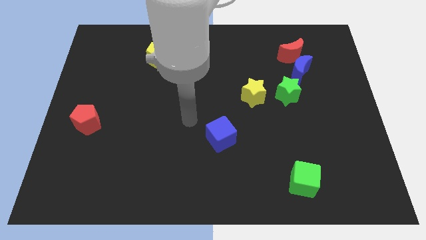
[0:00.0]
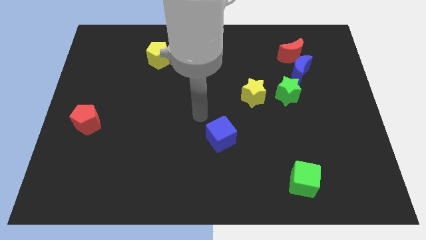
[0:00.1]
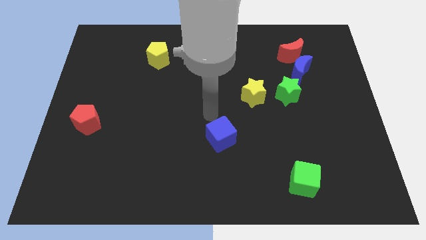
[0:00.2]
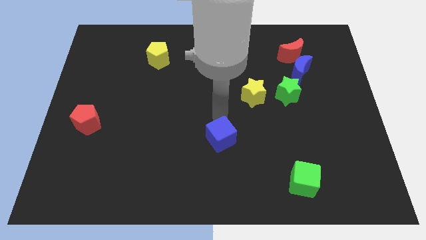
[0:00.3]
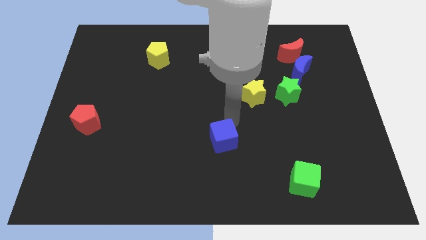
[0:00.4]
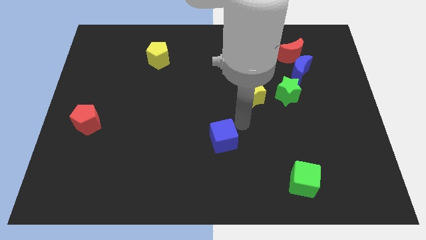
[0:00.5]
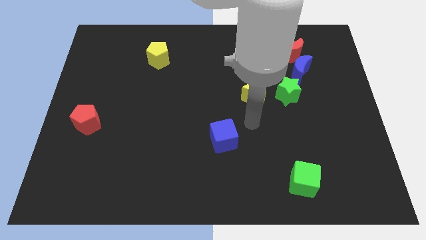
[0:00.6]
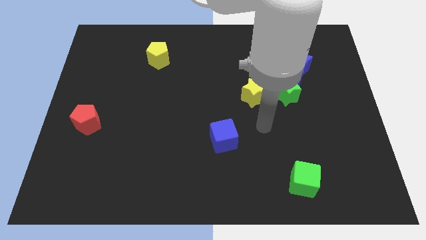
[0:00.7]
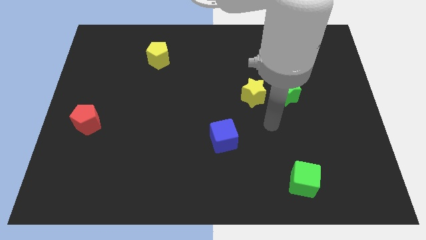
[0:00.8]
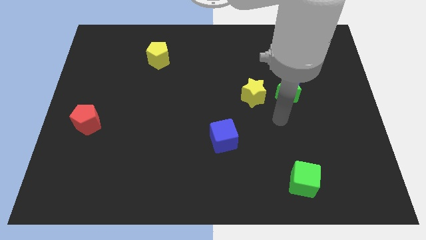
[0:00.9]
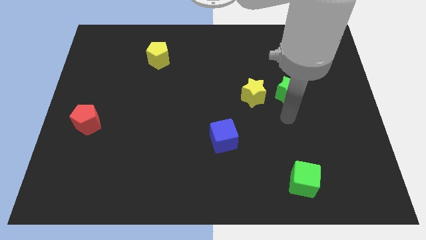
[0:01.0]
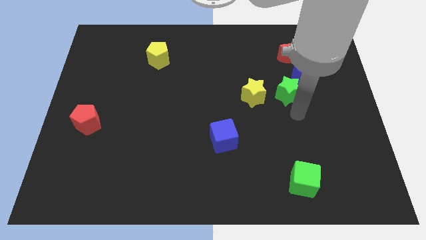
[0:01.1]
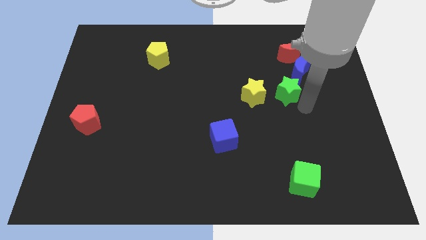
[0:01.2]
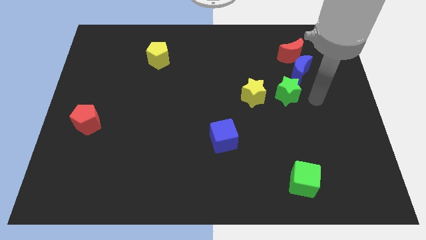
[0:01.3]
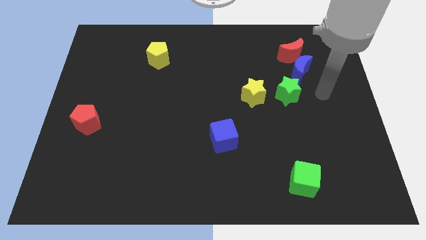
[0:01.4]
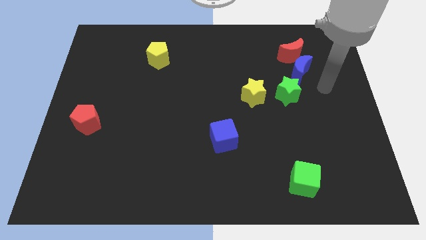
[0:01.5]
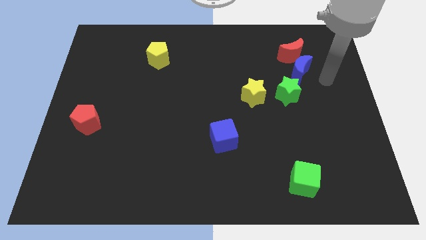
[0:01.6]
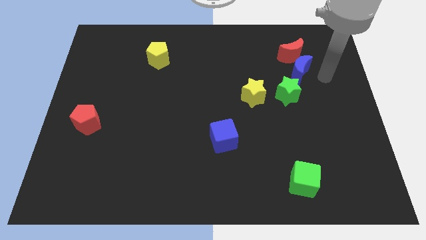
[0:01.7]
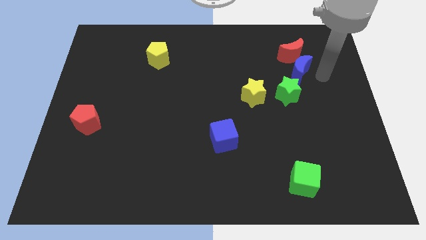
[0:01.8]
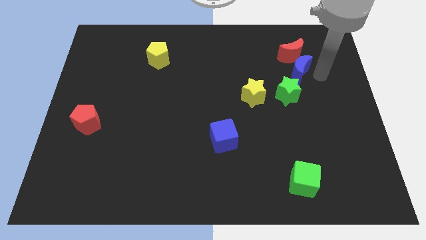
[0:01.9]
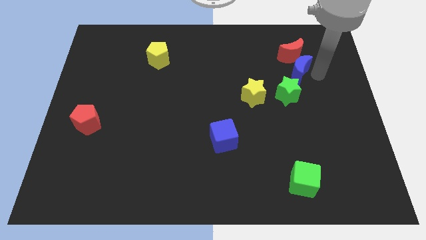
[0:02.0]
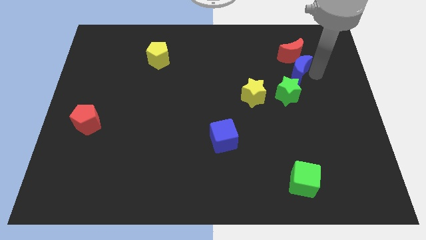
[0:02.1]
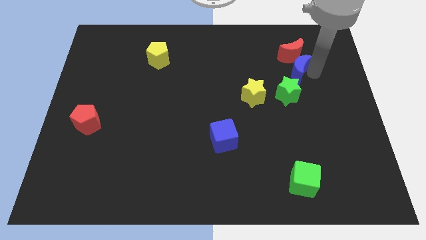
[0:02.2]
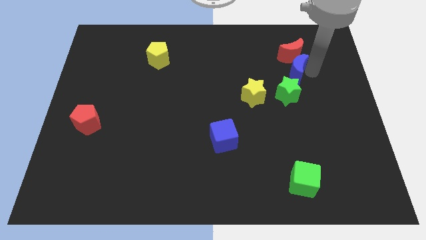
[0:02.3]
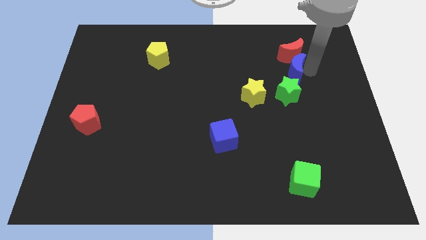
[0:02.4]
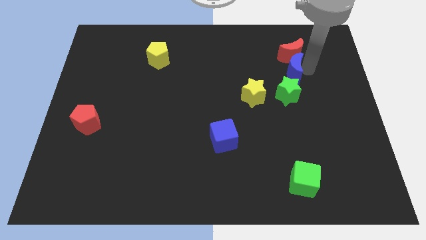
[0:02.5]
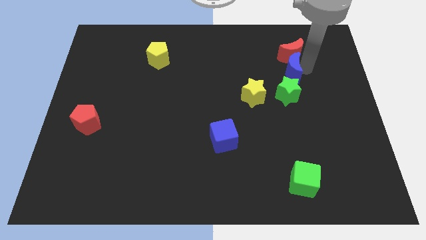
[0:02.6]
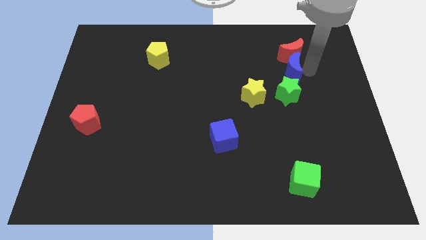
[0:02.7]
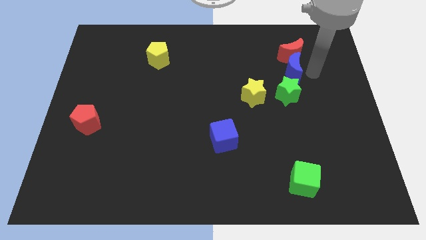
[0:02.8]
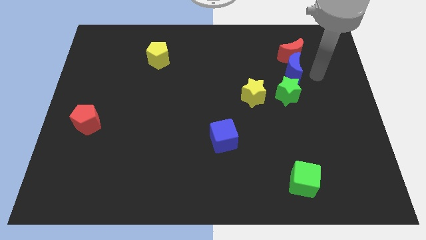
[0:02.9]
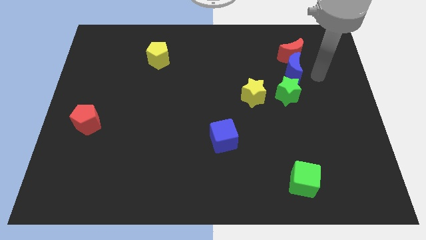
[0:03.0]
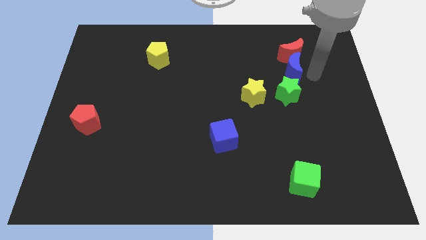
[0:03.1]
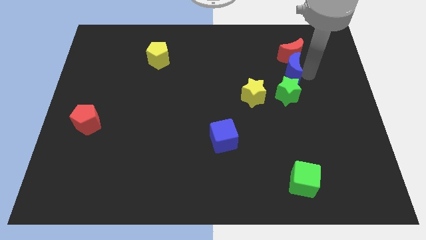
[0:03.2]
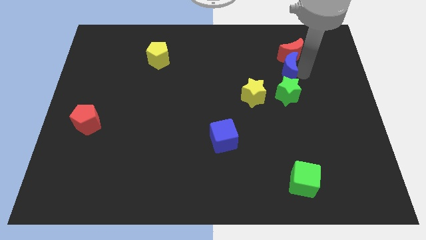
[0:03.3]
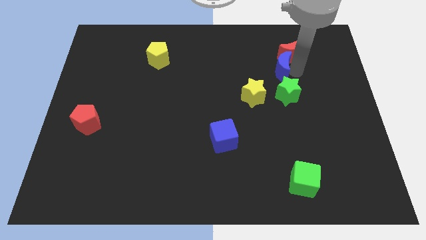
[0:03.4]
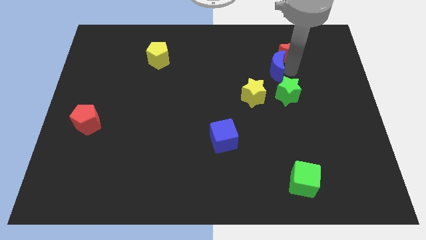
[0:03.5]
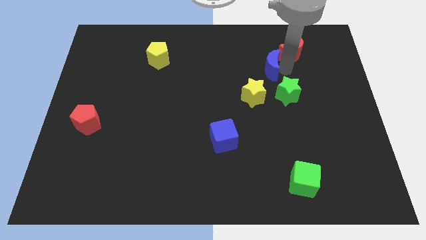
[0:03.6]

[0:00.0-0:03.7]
push the blue moon a bit to the left

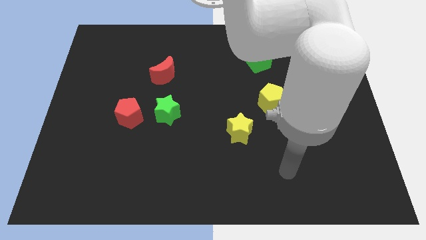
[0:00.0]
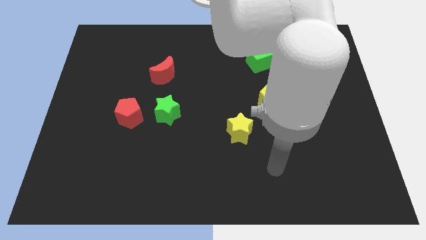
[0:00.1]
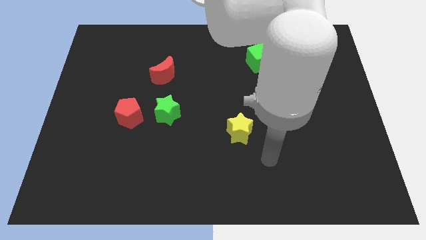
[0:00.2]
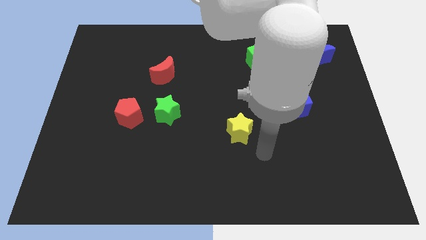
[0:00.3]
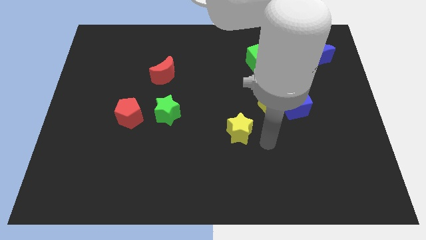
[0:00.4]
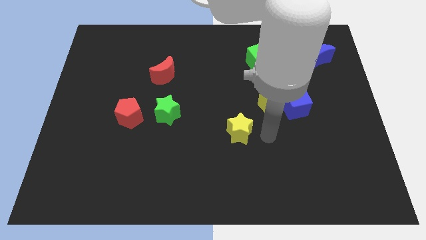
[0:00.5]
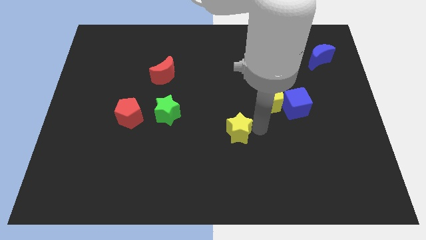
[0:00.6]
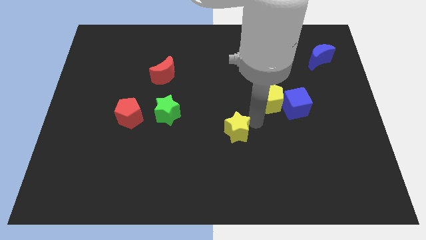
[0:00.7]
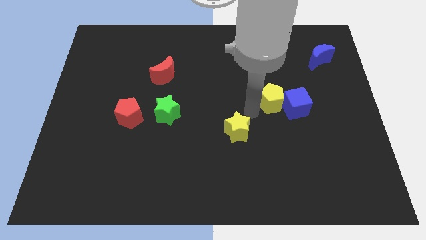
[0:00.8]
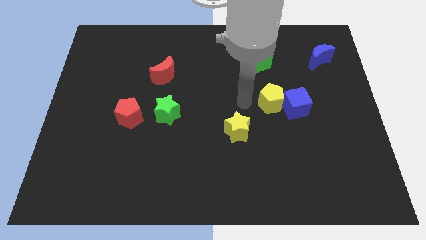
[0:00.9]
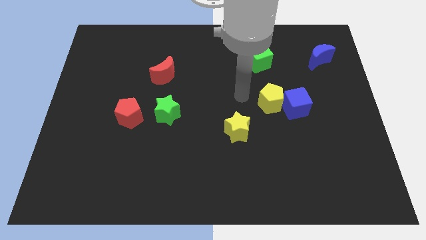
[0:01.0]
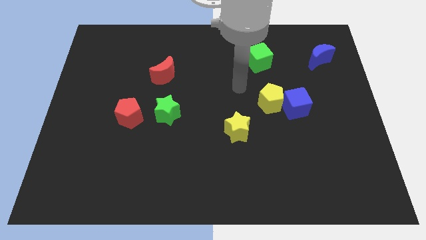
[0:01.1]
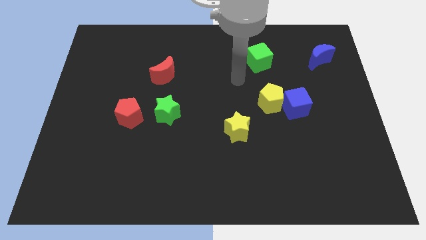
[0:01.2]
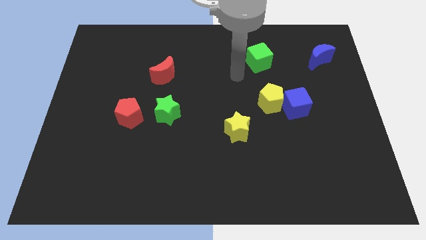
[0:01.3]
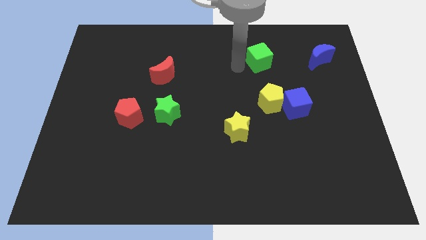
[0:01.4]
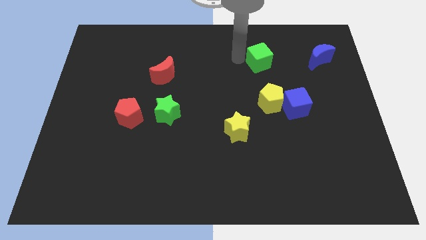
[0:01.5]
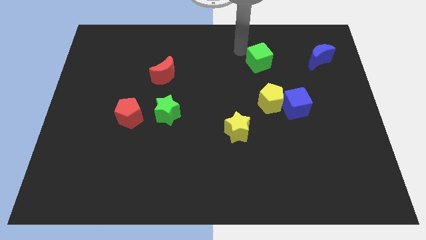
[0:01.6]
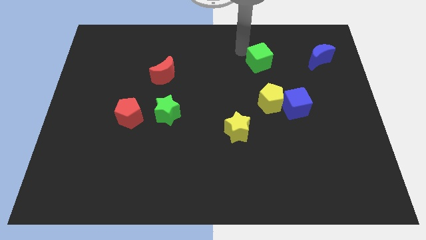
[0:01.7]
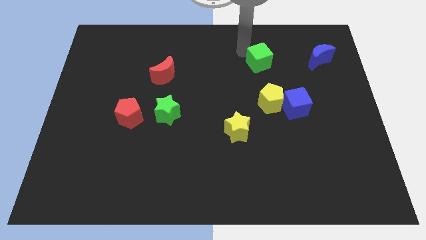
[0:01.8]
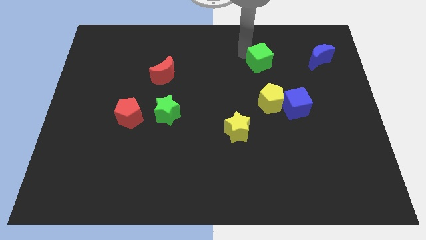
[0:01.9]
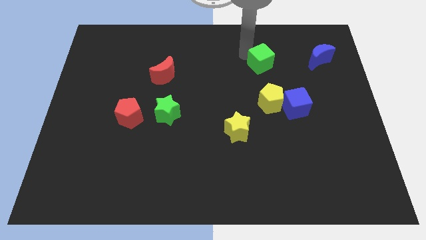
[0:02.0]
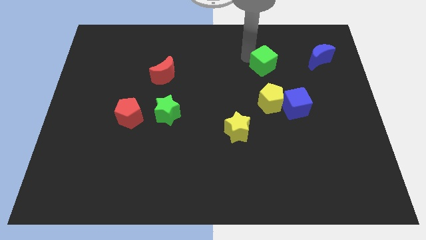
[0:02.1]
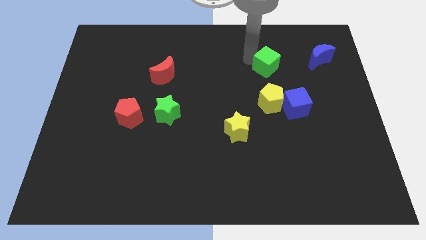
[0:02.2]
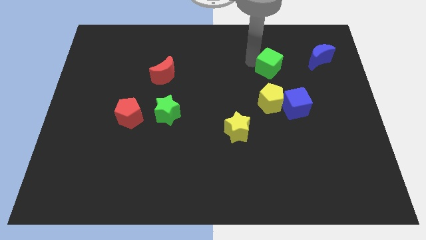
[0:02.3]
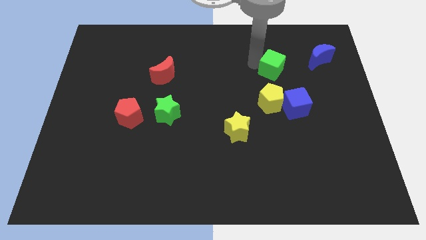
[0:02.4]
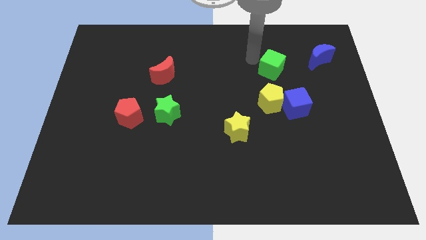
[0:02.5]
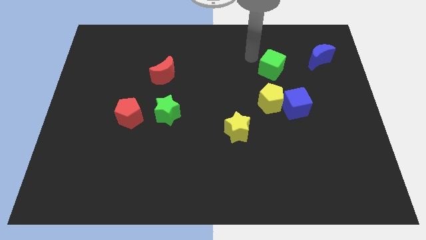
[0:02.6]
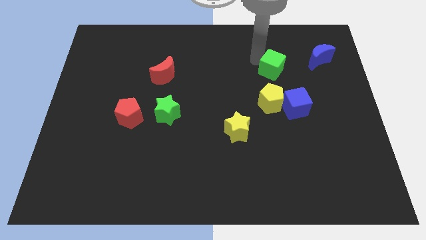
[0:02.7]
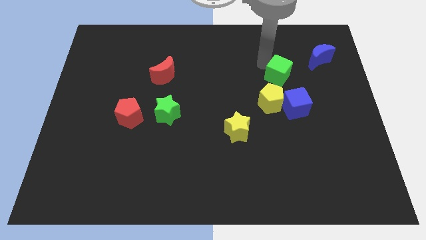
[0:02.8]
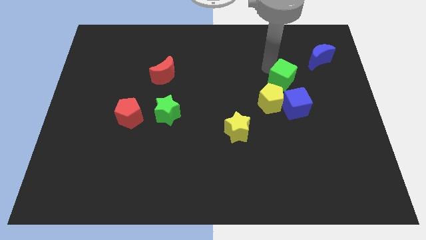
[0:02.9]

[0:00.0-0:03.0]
push the green cube a little bit down and to the right

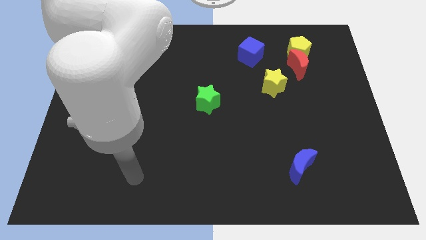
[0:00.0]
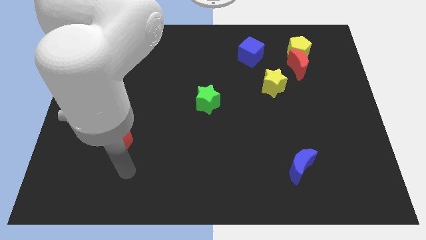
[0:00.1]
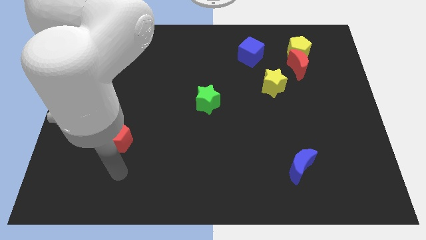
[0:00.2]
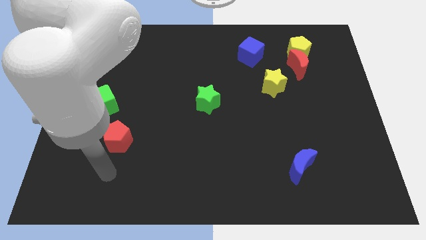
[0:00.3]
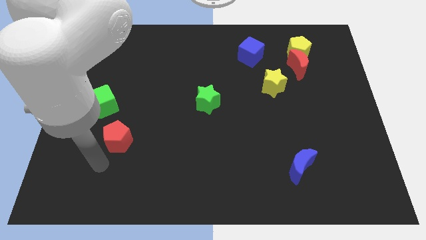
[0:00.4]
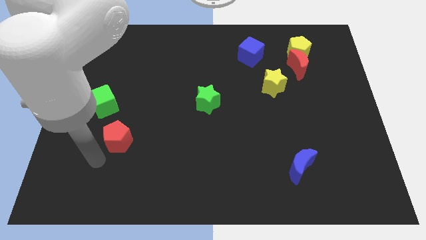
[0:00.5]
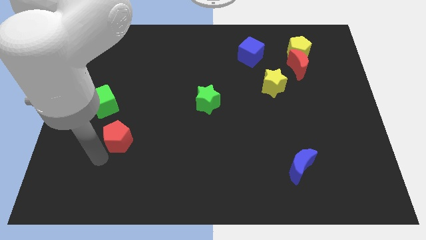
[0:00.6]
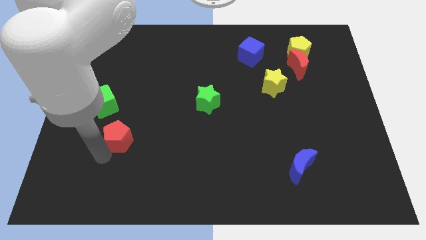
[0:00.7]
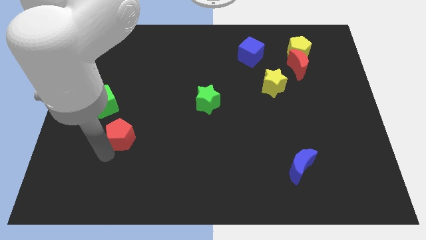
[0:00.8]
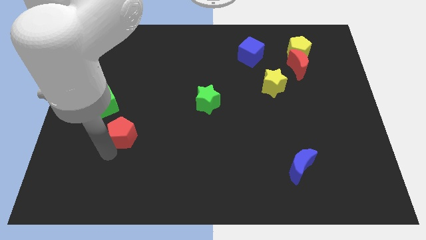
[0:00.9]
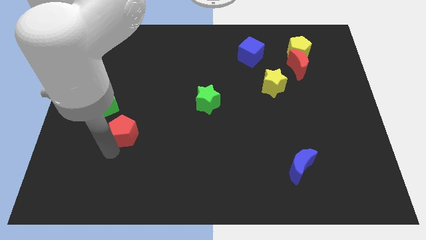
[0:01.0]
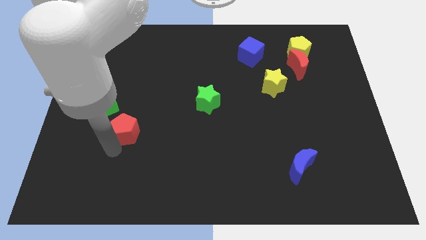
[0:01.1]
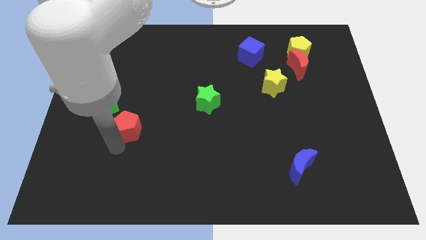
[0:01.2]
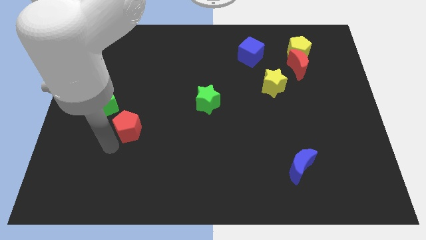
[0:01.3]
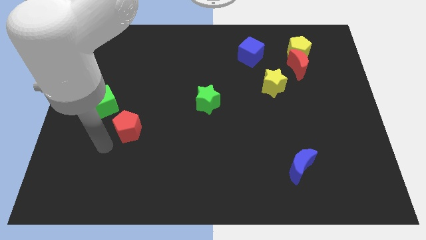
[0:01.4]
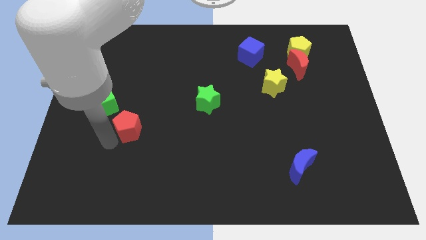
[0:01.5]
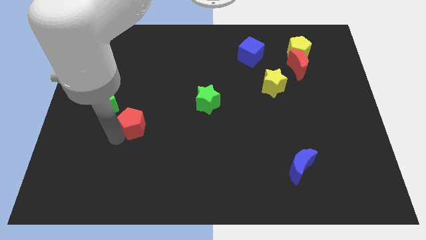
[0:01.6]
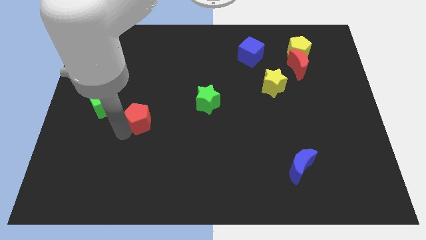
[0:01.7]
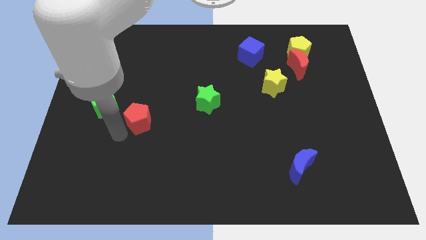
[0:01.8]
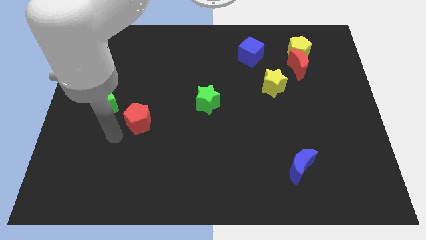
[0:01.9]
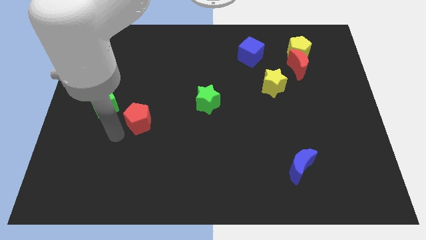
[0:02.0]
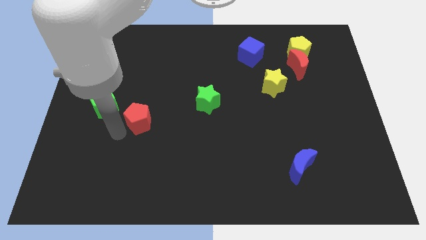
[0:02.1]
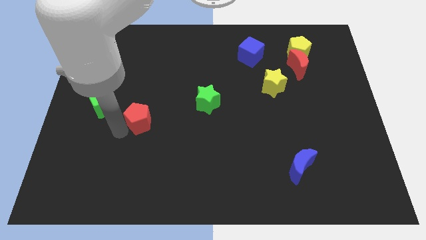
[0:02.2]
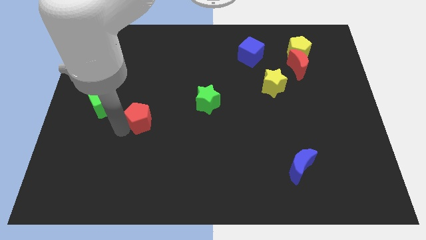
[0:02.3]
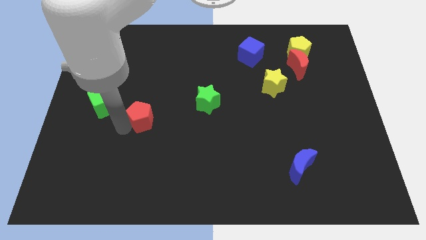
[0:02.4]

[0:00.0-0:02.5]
push the red pentagon somewhat upwards and to the right
